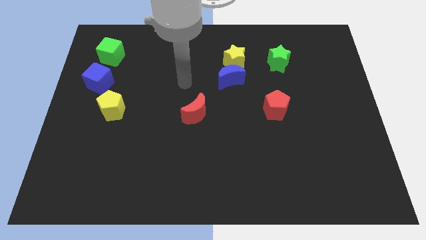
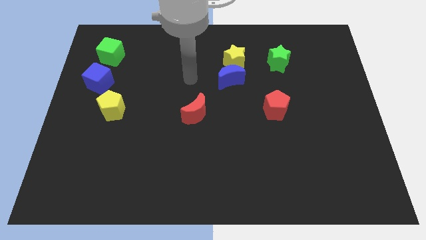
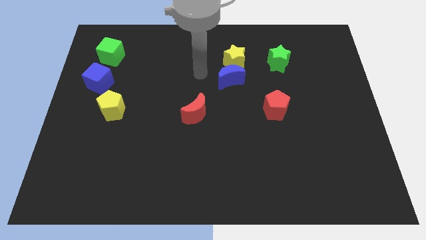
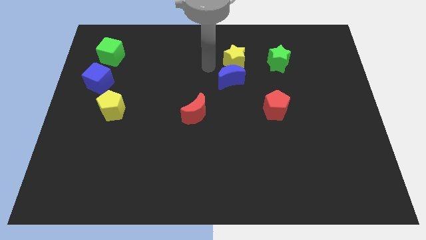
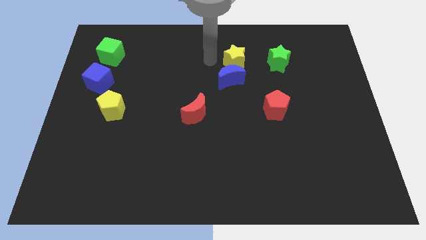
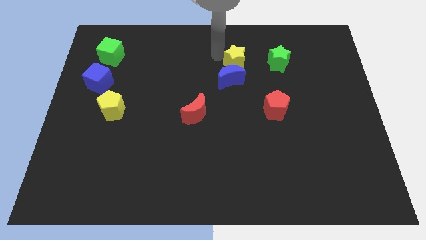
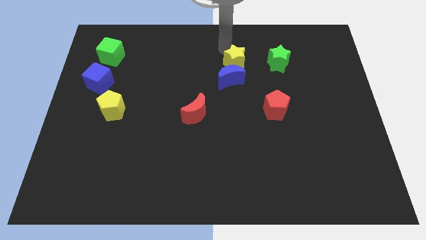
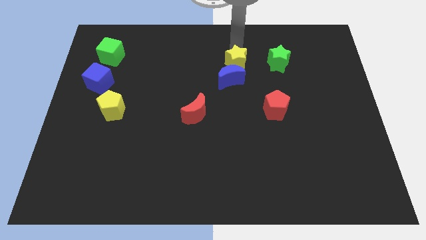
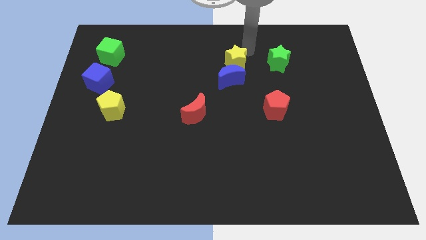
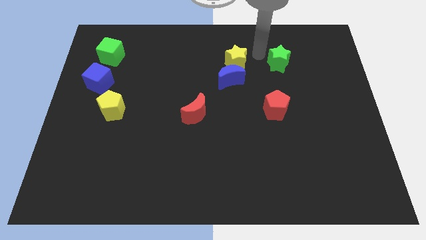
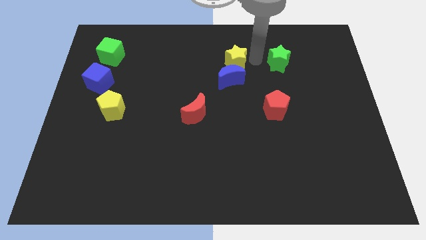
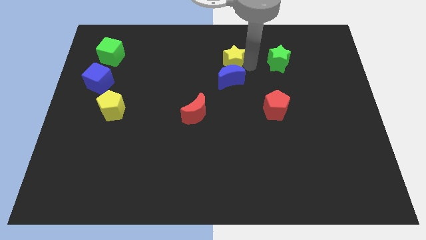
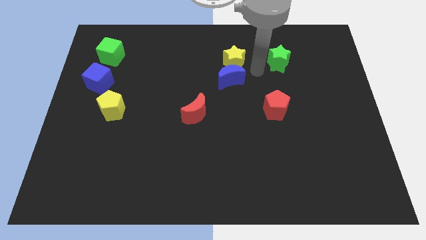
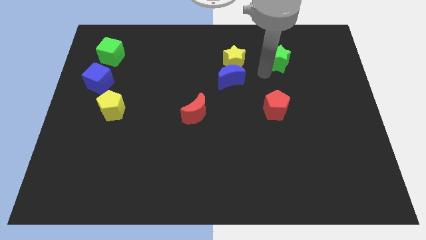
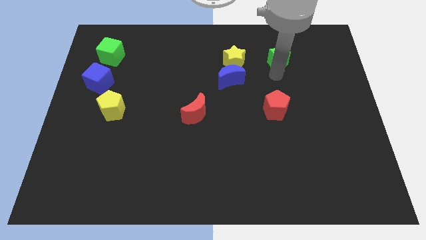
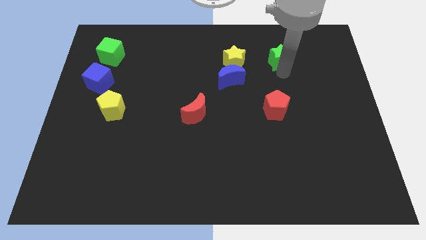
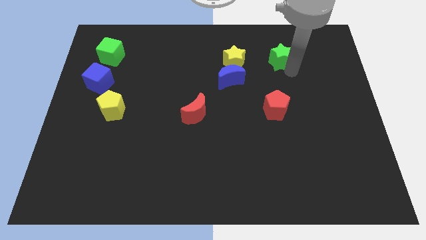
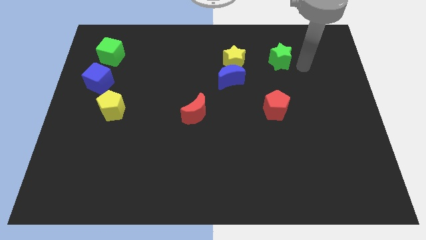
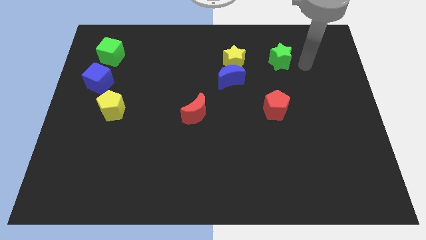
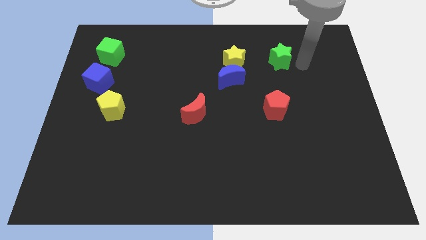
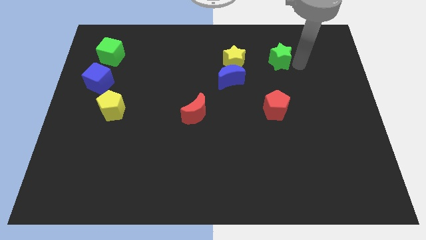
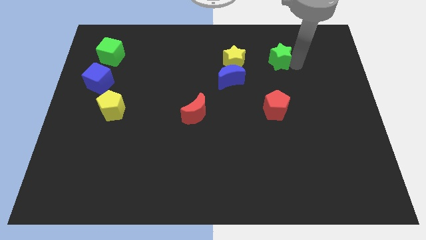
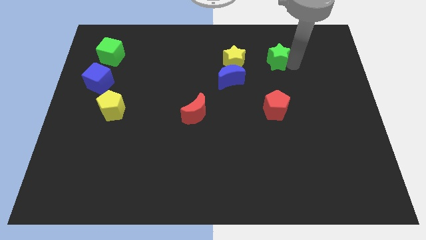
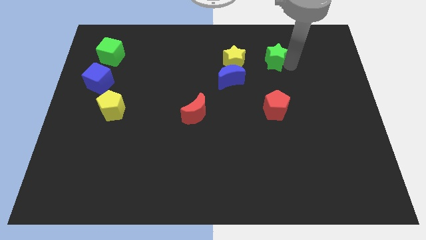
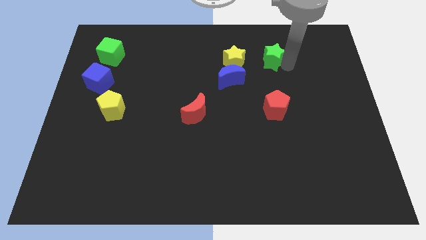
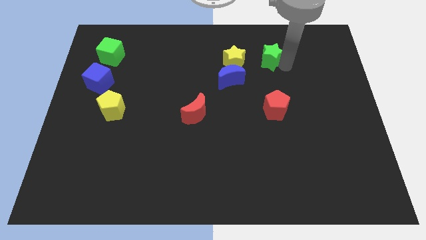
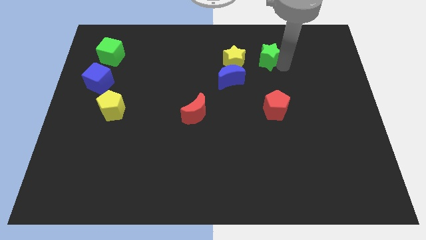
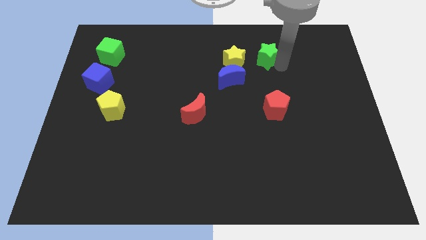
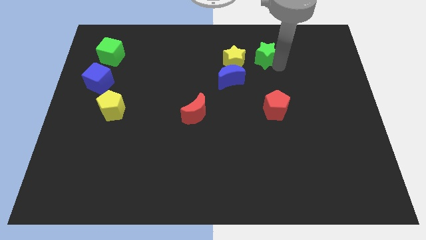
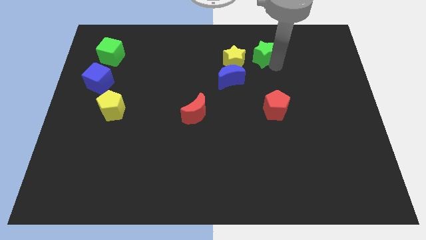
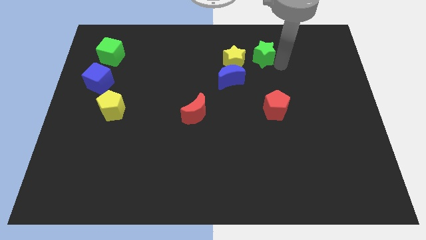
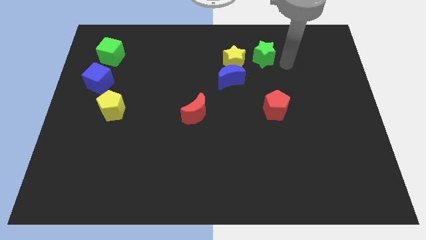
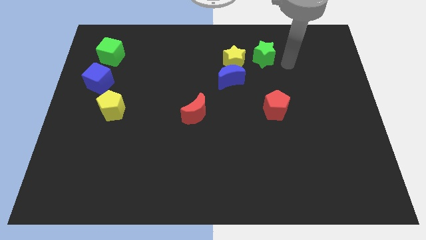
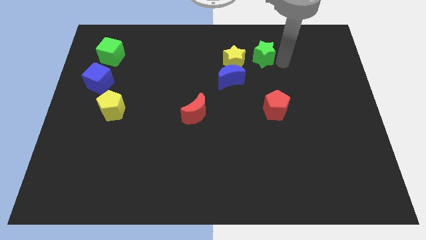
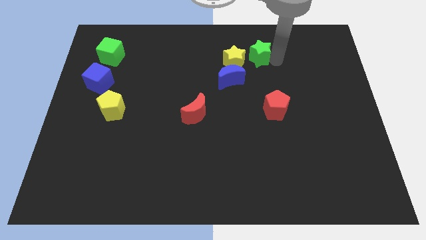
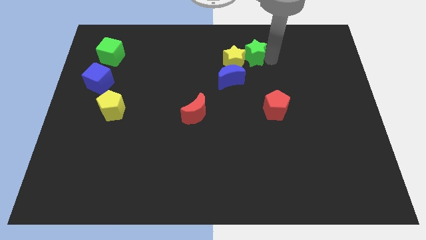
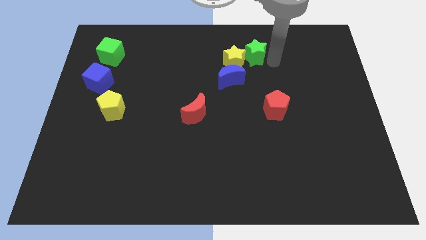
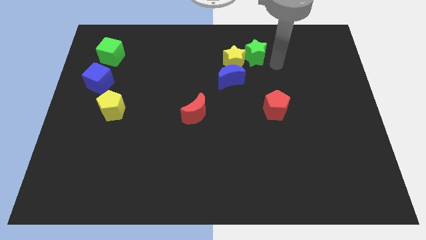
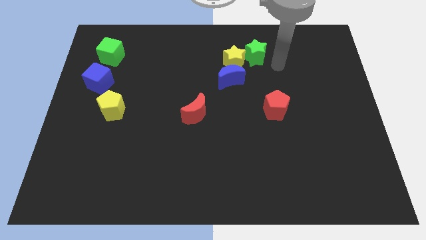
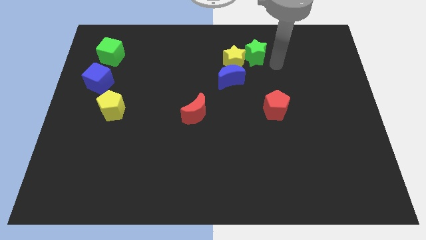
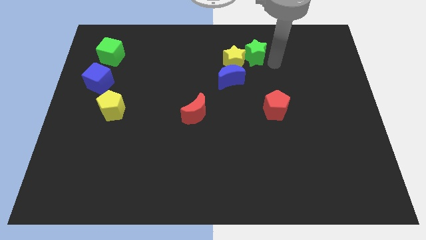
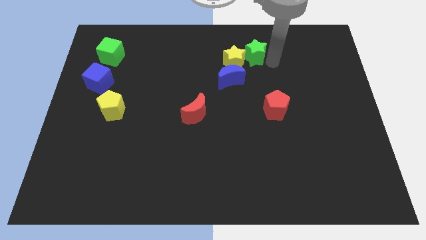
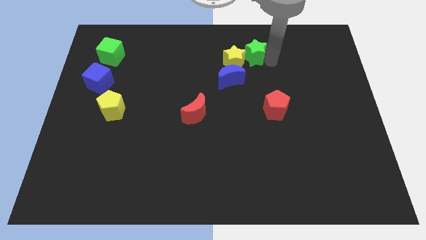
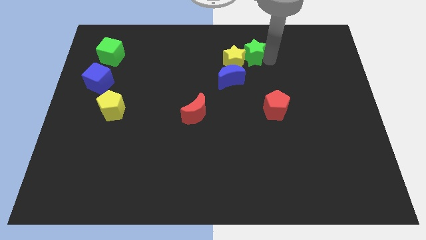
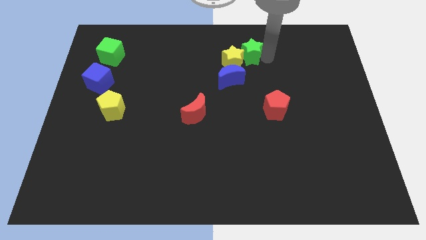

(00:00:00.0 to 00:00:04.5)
slide the green star a little bit to the left

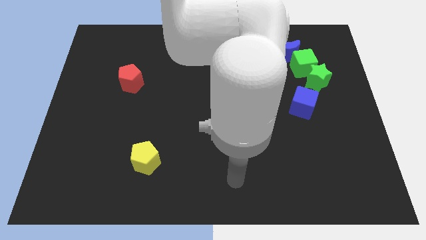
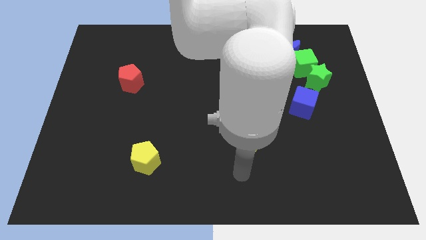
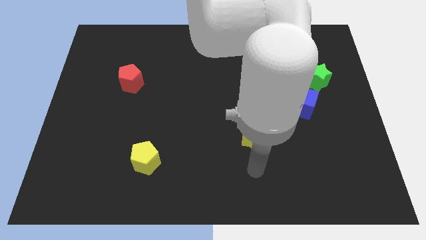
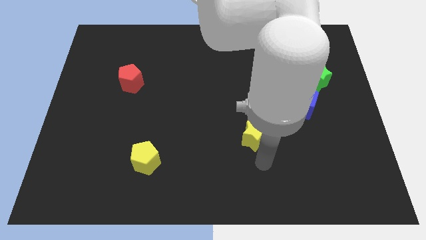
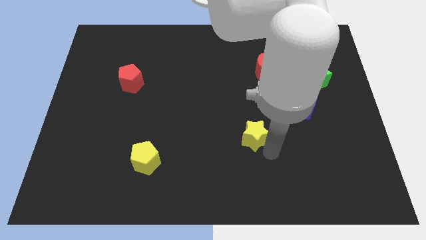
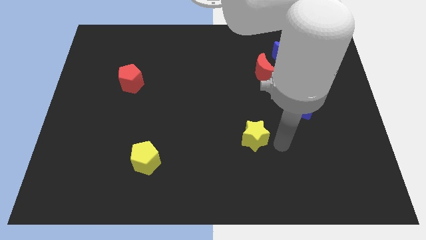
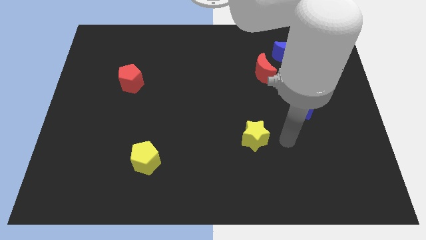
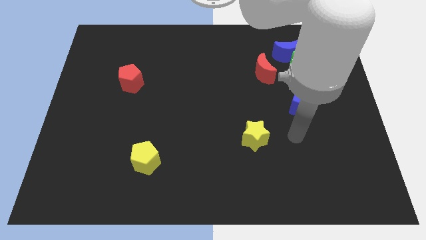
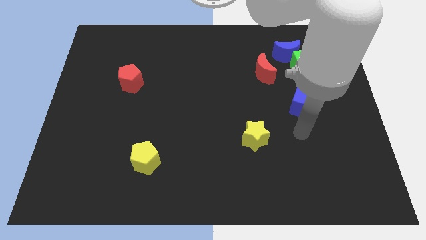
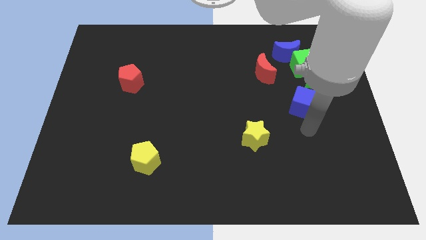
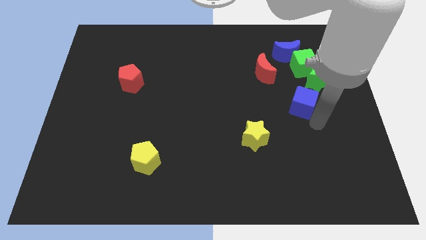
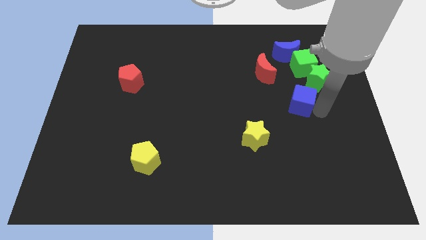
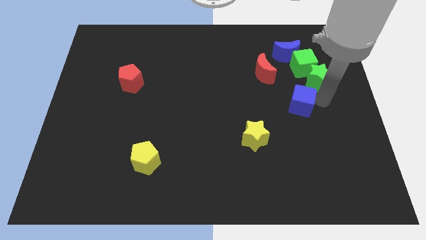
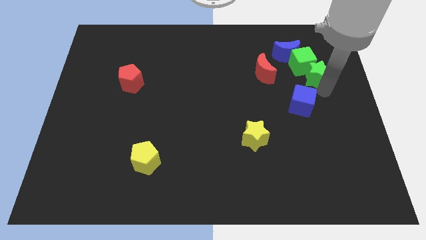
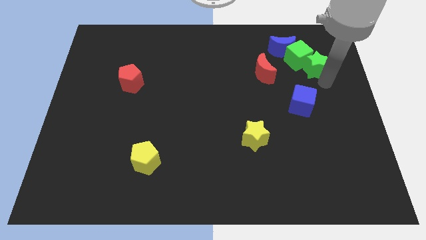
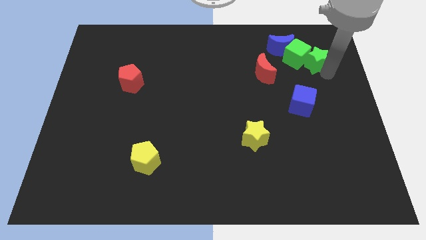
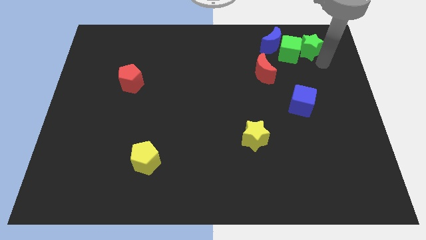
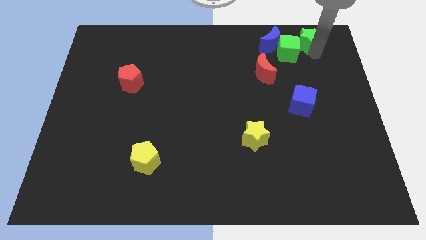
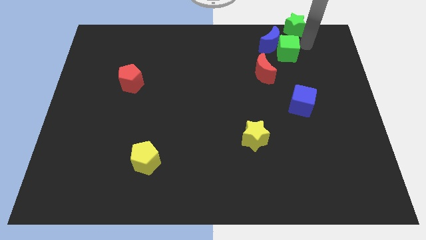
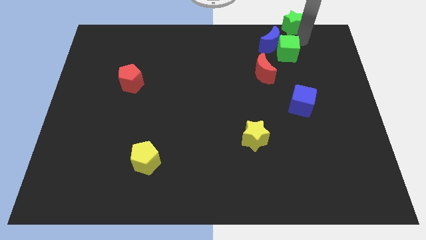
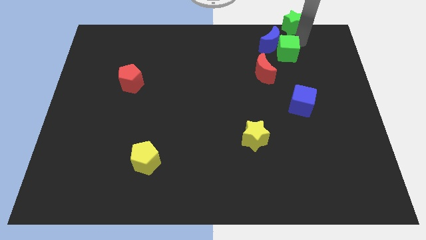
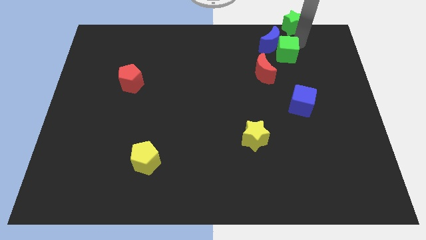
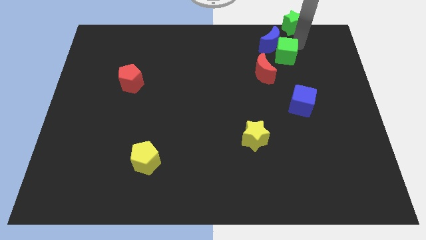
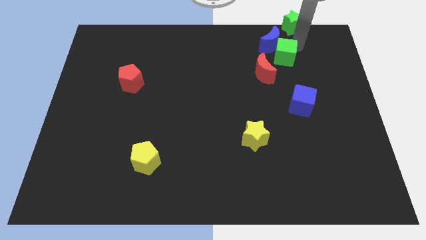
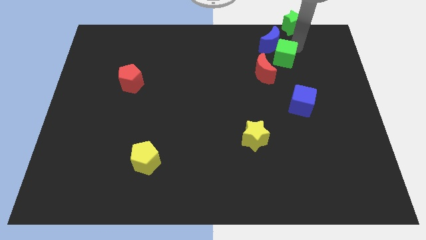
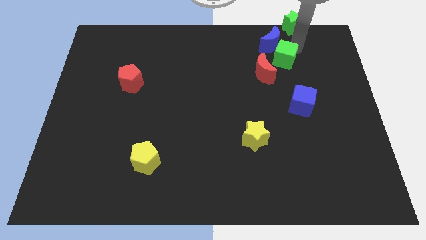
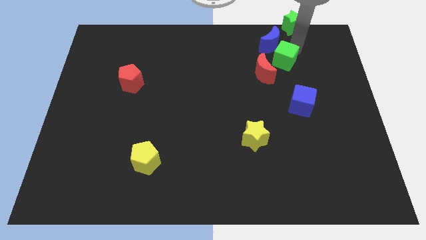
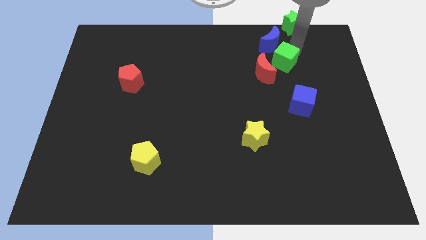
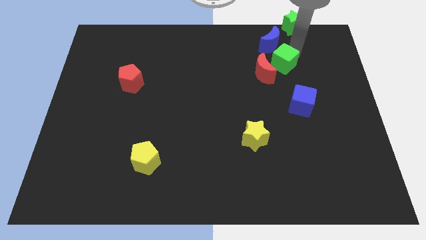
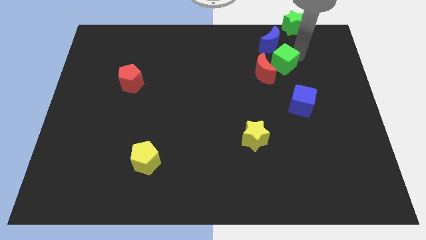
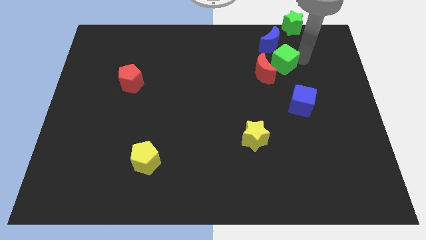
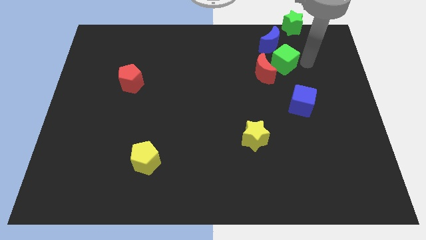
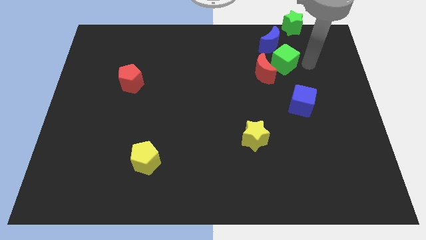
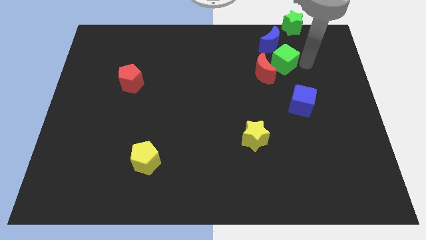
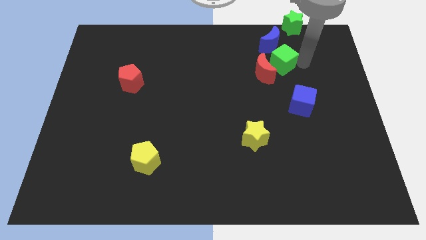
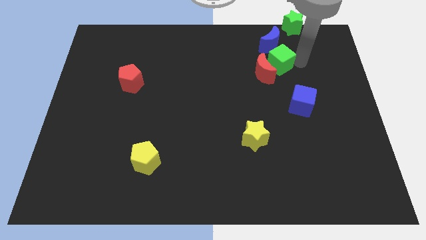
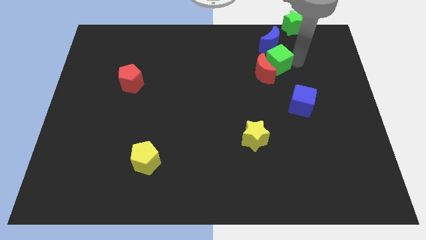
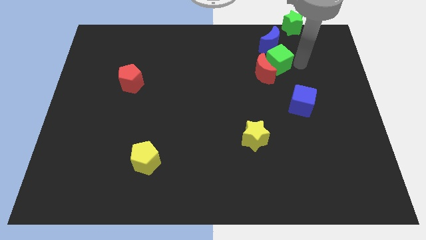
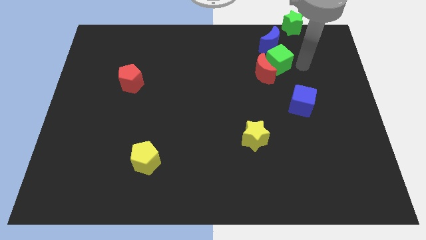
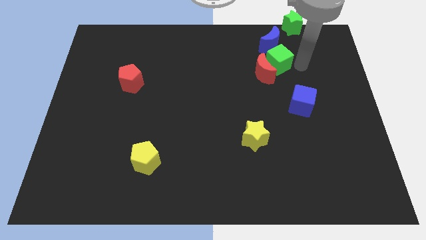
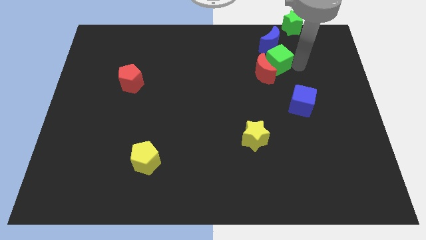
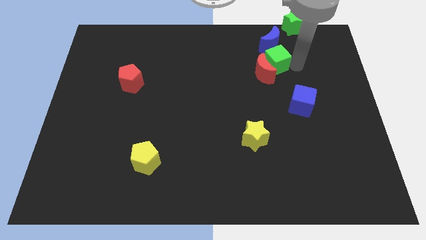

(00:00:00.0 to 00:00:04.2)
push the green cube left a bit
